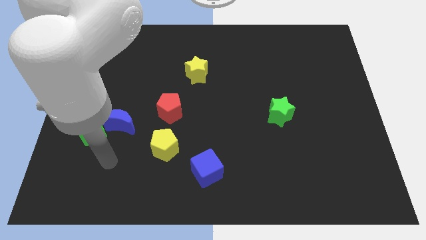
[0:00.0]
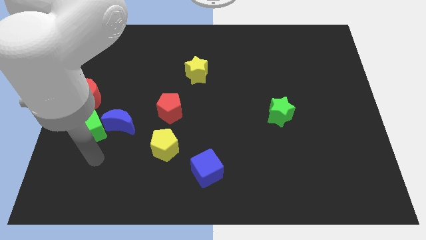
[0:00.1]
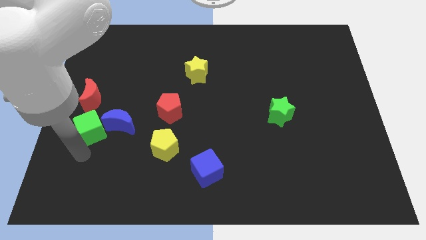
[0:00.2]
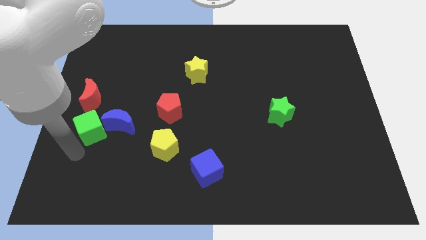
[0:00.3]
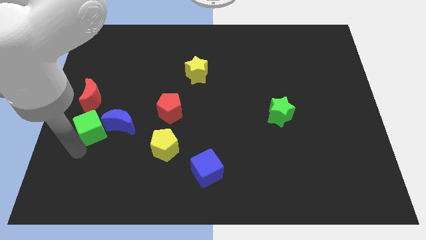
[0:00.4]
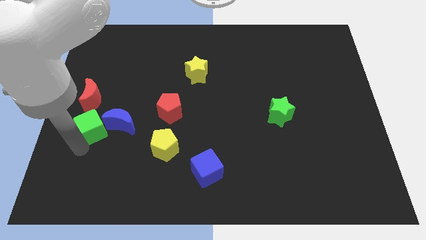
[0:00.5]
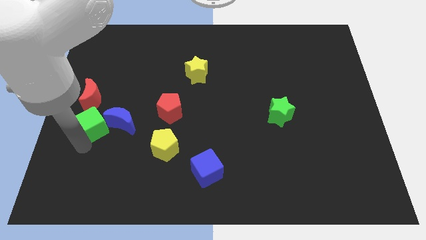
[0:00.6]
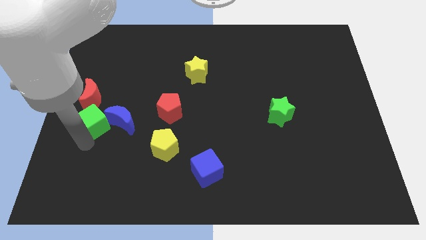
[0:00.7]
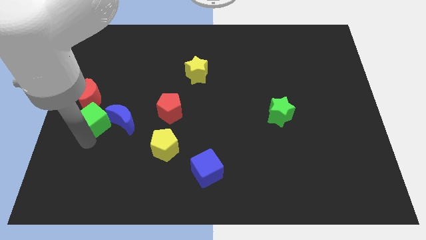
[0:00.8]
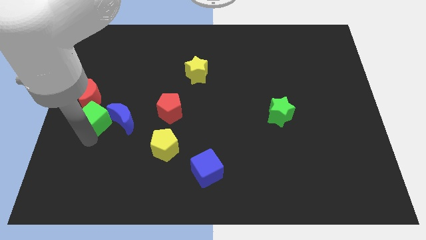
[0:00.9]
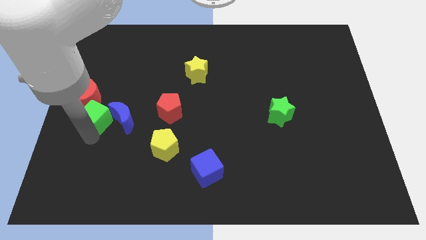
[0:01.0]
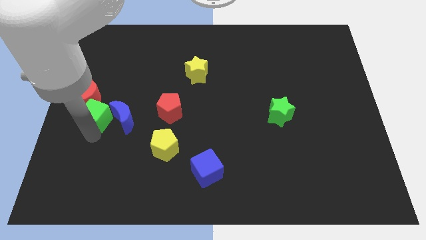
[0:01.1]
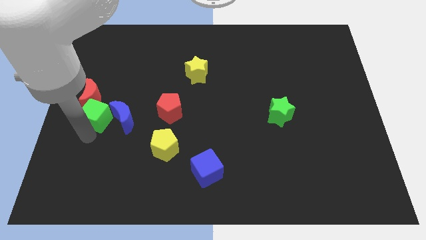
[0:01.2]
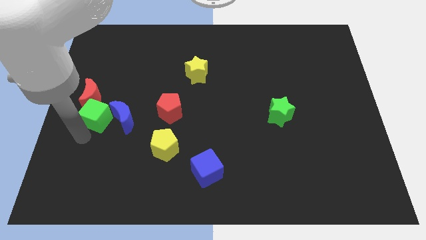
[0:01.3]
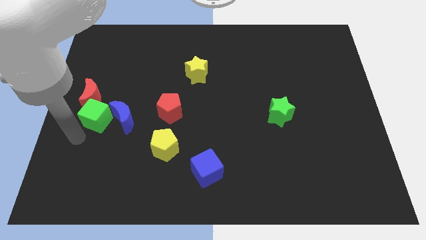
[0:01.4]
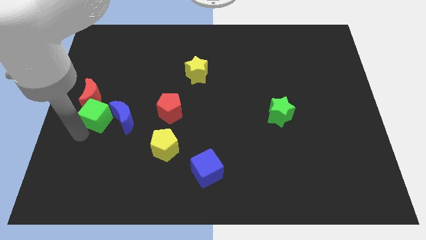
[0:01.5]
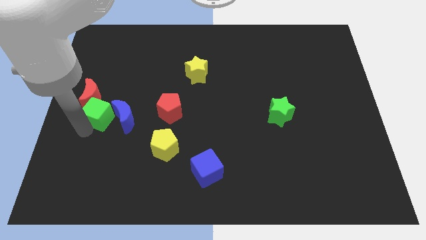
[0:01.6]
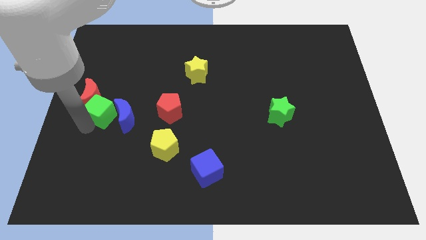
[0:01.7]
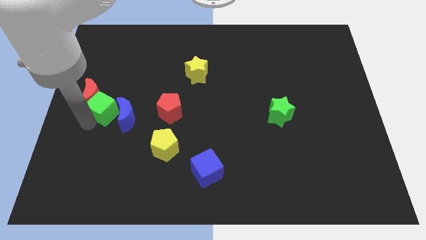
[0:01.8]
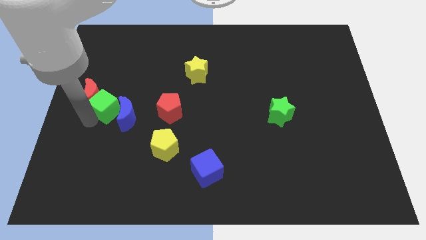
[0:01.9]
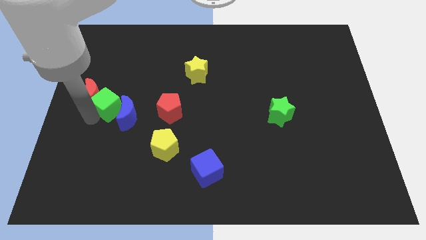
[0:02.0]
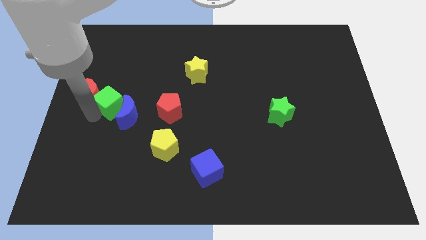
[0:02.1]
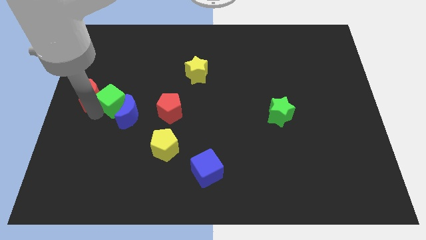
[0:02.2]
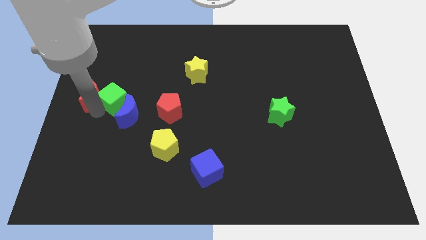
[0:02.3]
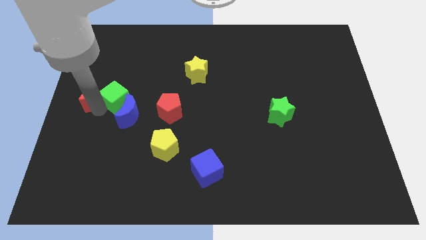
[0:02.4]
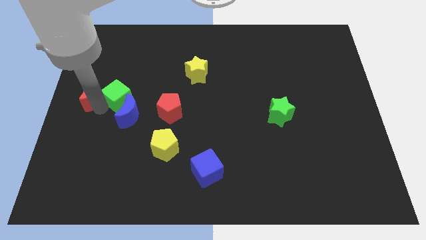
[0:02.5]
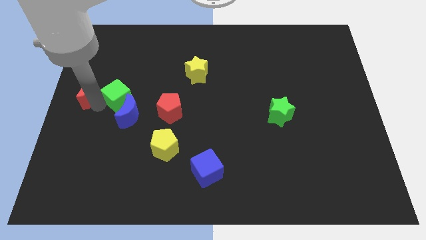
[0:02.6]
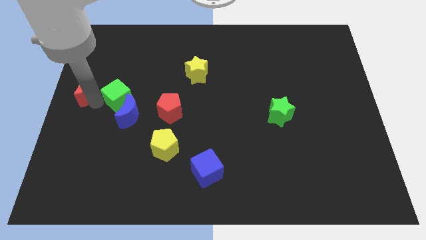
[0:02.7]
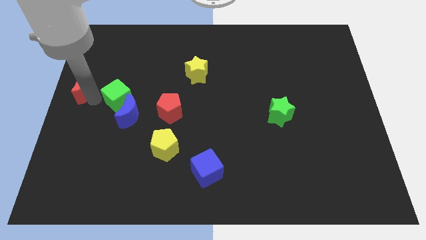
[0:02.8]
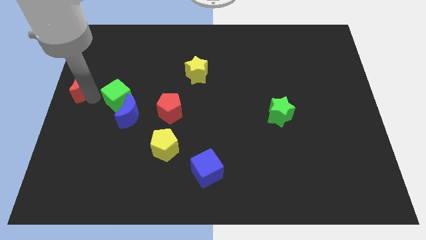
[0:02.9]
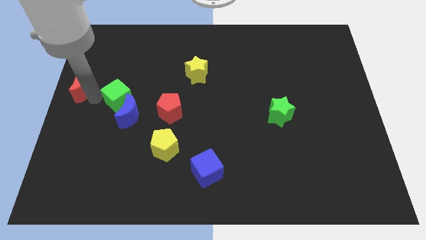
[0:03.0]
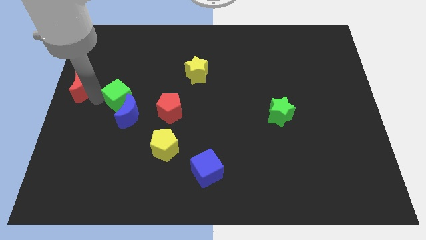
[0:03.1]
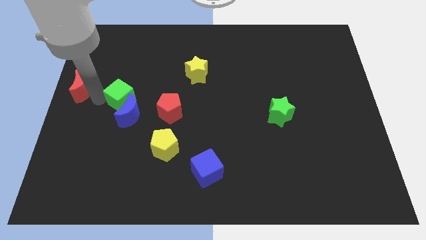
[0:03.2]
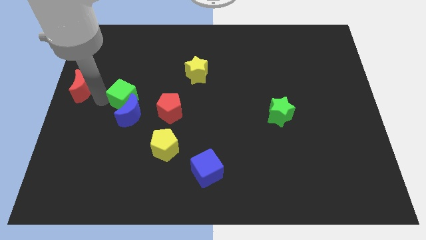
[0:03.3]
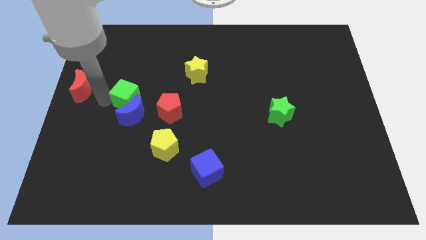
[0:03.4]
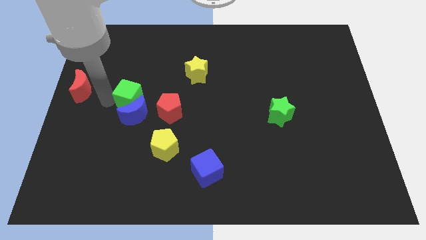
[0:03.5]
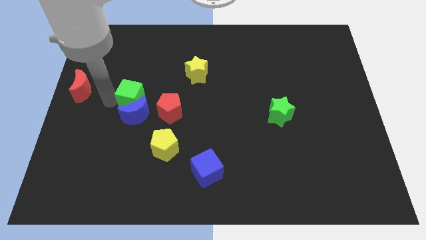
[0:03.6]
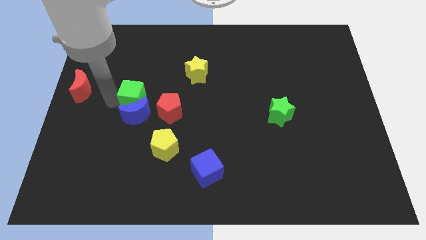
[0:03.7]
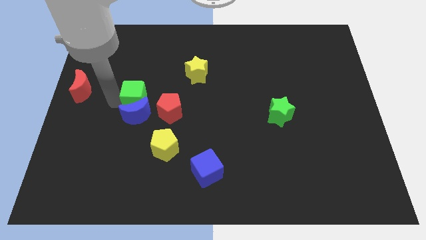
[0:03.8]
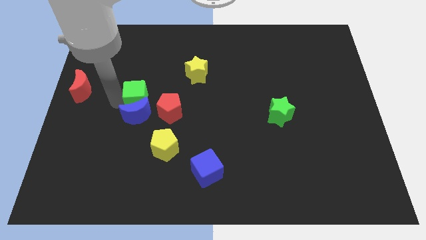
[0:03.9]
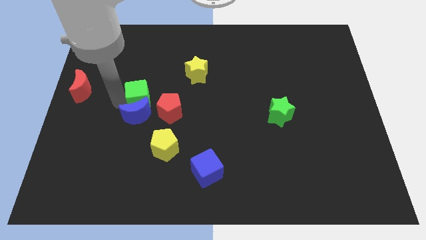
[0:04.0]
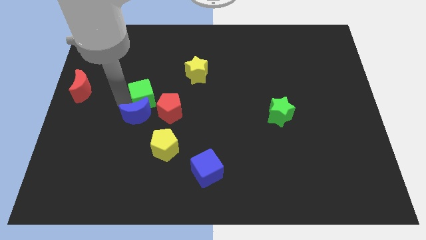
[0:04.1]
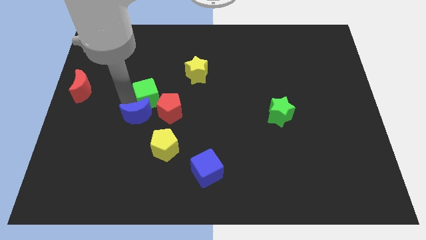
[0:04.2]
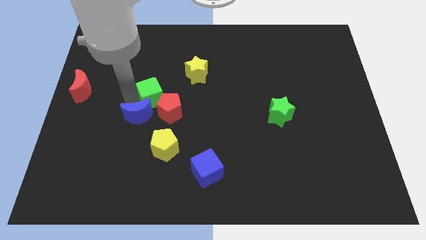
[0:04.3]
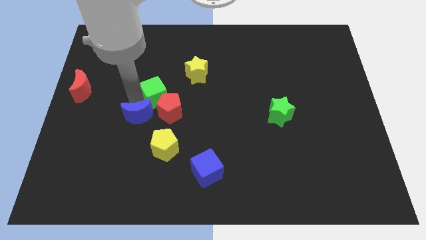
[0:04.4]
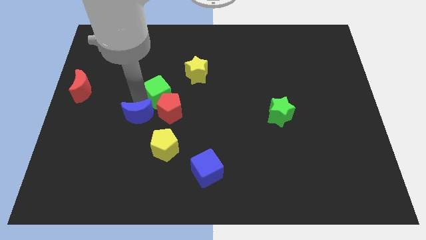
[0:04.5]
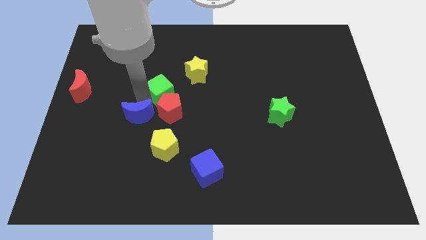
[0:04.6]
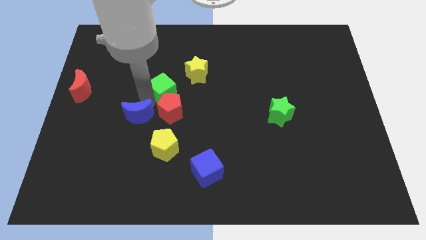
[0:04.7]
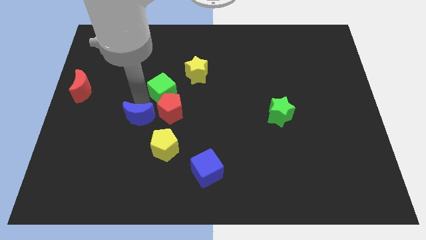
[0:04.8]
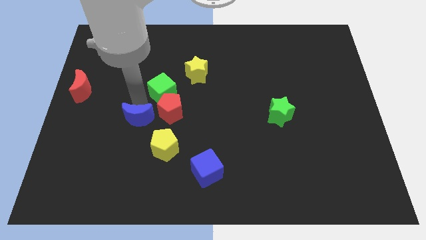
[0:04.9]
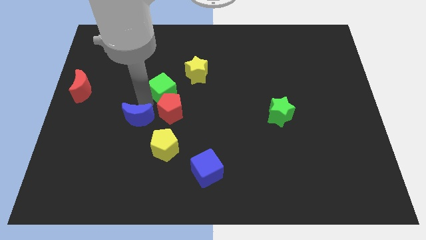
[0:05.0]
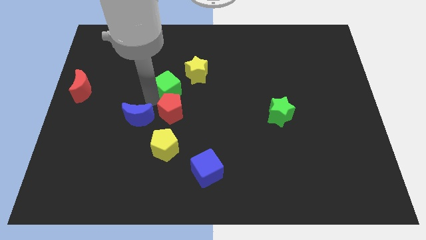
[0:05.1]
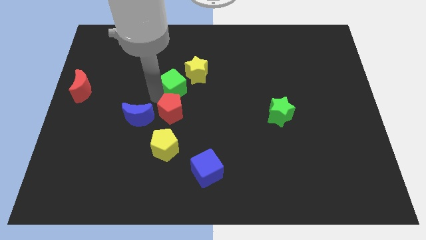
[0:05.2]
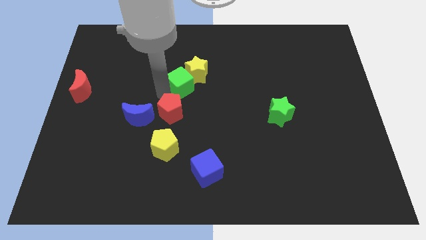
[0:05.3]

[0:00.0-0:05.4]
slide the green cube to the yellow star

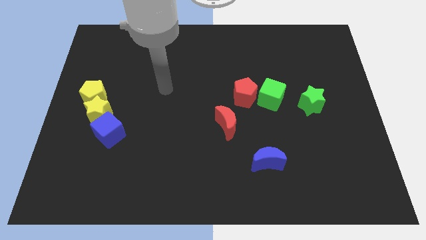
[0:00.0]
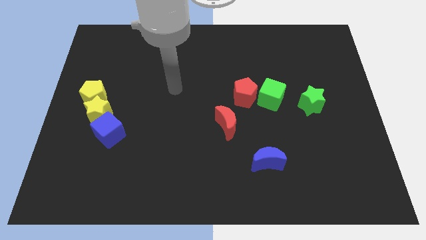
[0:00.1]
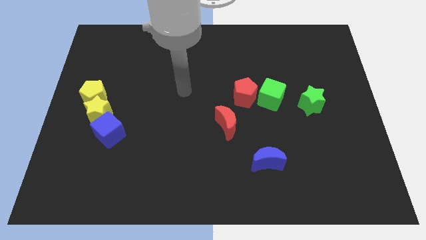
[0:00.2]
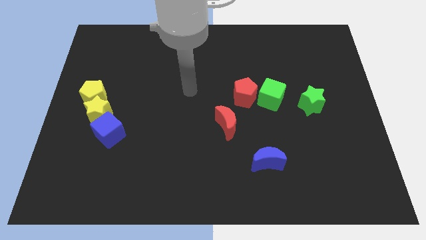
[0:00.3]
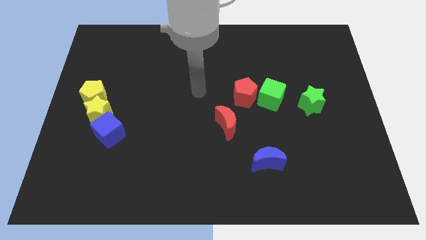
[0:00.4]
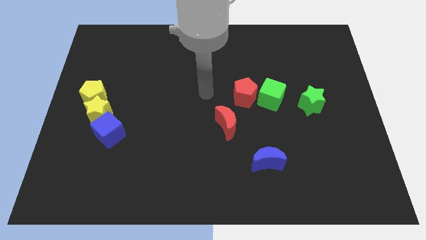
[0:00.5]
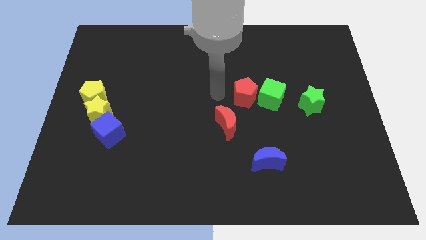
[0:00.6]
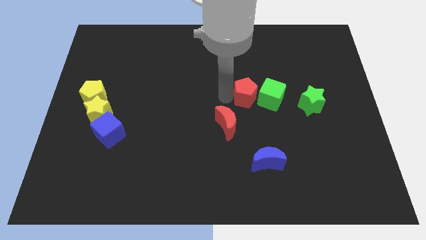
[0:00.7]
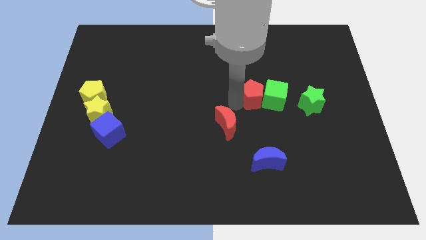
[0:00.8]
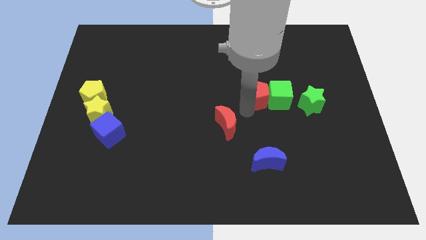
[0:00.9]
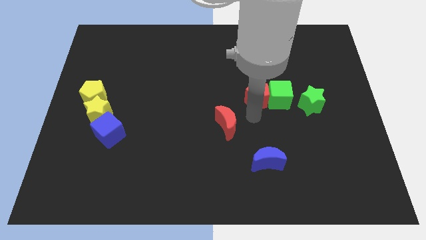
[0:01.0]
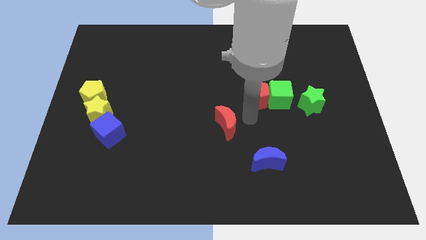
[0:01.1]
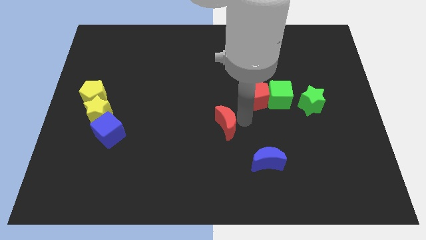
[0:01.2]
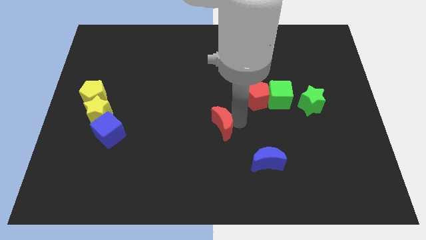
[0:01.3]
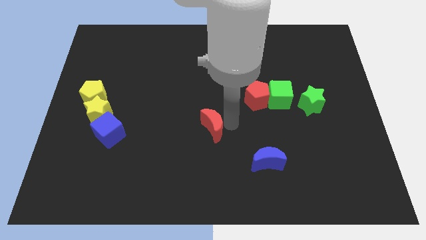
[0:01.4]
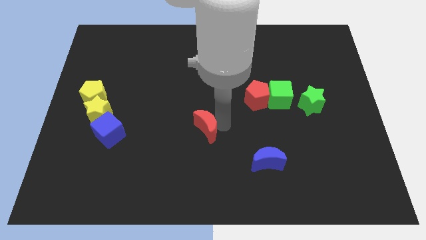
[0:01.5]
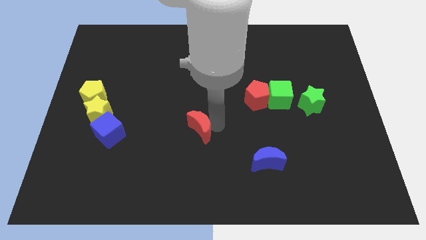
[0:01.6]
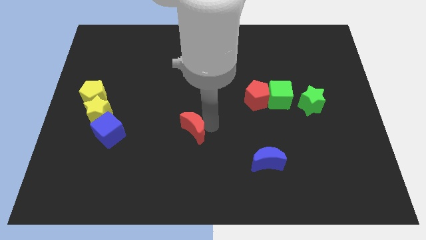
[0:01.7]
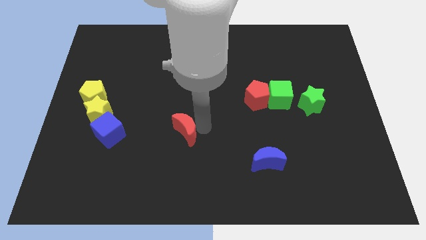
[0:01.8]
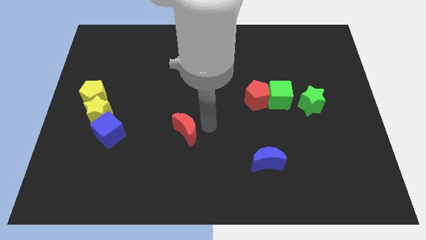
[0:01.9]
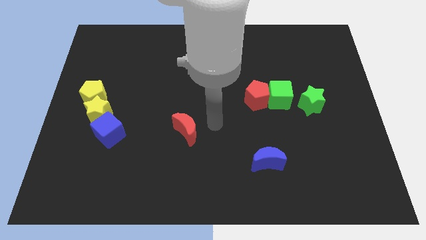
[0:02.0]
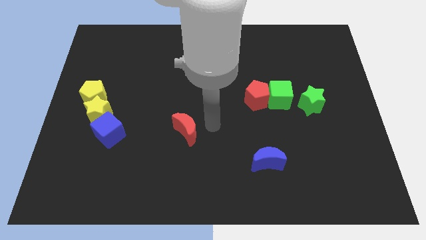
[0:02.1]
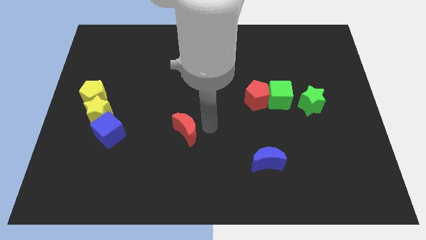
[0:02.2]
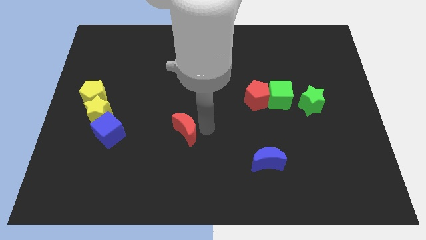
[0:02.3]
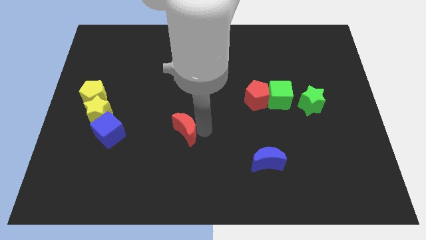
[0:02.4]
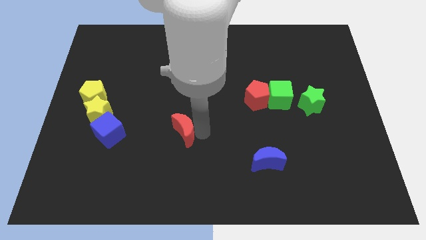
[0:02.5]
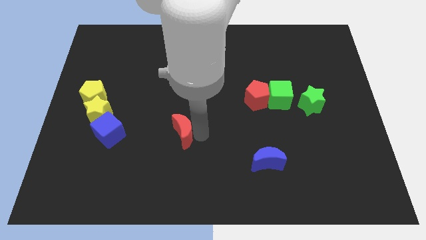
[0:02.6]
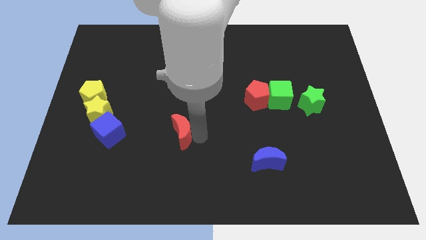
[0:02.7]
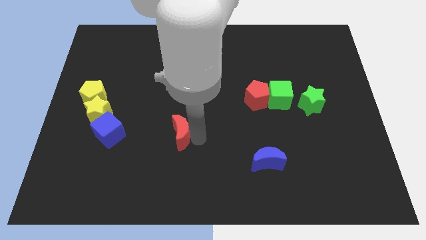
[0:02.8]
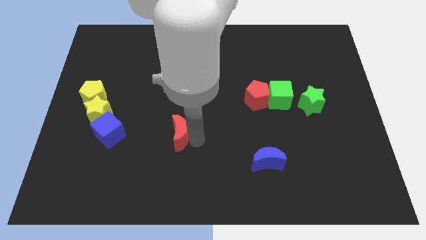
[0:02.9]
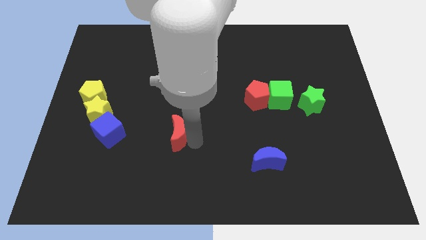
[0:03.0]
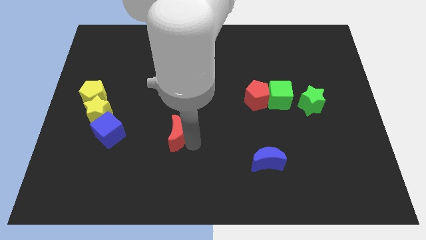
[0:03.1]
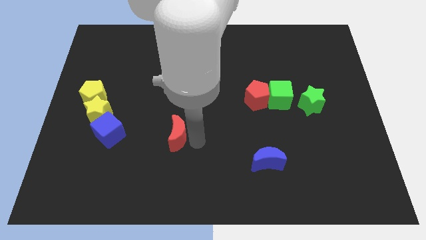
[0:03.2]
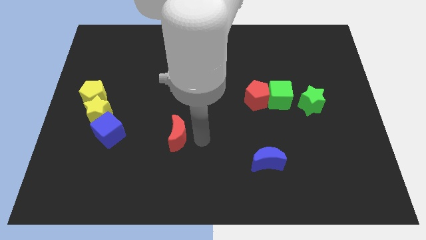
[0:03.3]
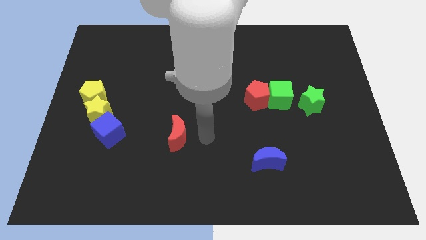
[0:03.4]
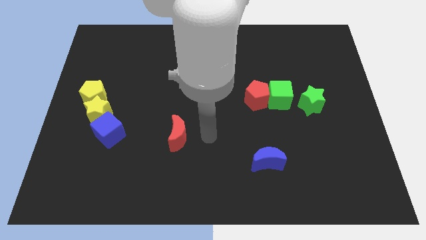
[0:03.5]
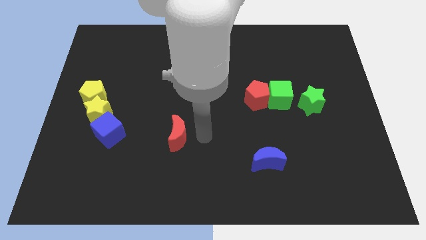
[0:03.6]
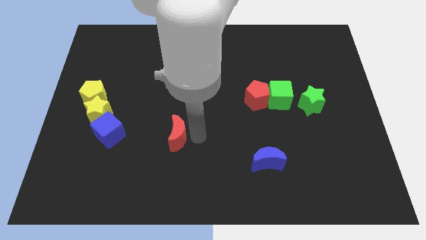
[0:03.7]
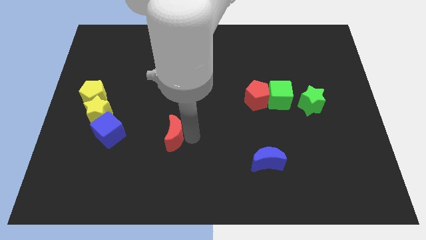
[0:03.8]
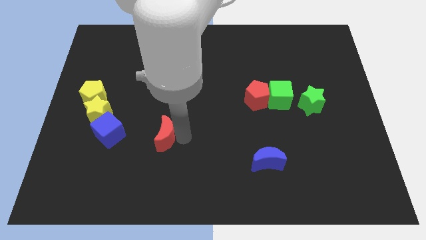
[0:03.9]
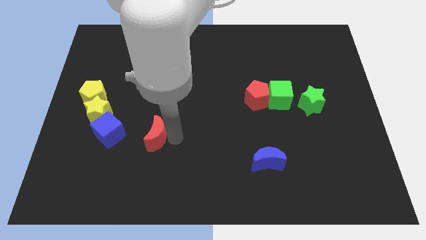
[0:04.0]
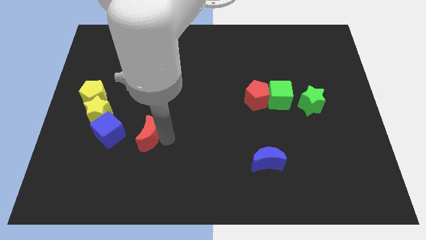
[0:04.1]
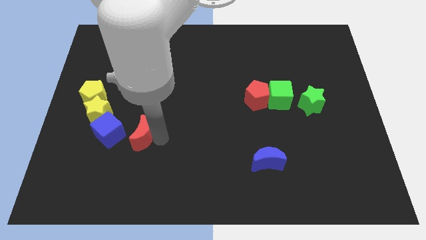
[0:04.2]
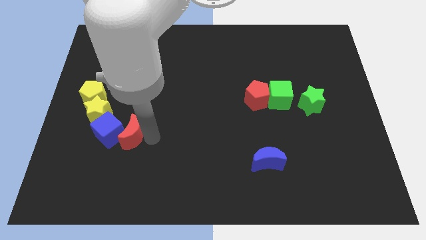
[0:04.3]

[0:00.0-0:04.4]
slide the red moon close to the blue cube
